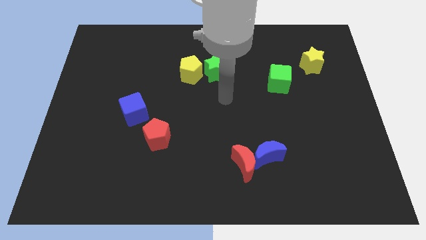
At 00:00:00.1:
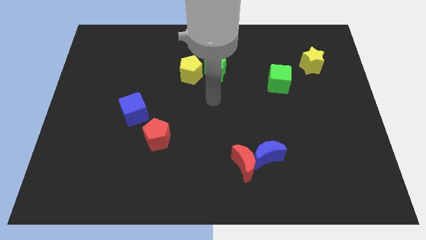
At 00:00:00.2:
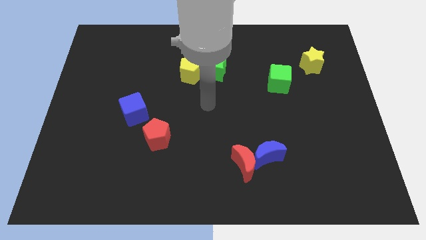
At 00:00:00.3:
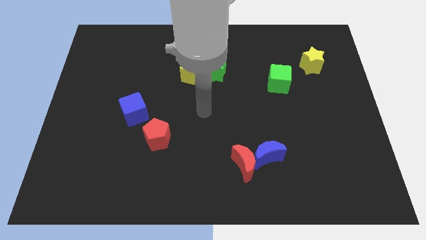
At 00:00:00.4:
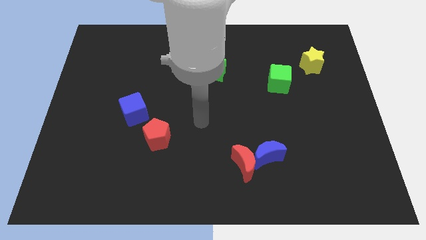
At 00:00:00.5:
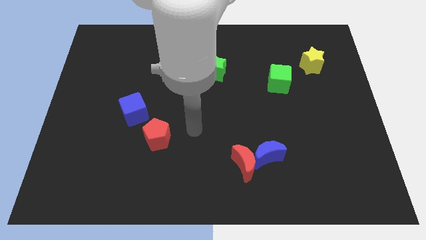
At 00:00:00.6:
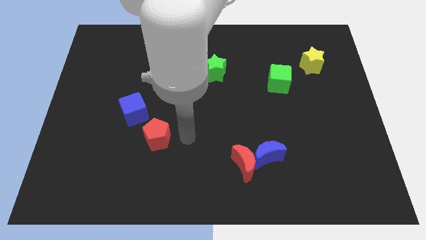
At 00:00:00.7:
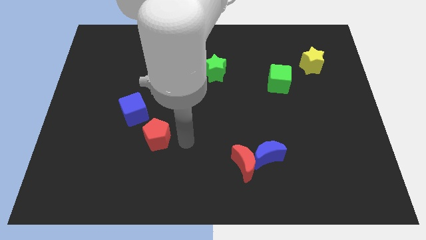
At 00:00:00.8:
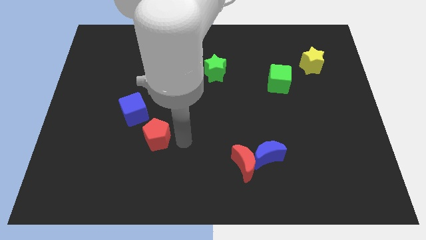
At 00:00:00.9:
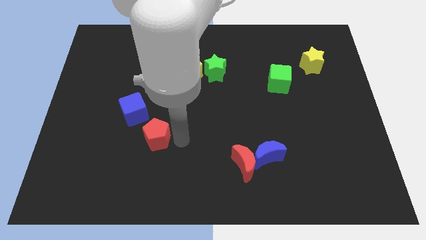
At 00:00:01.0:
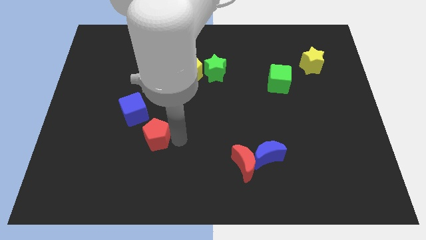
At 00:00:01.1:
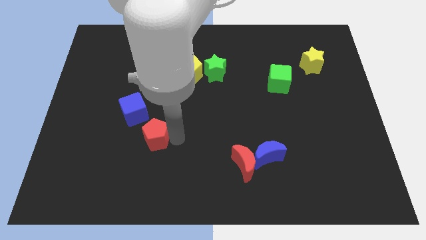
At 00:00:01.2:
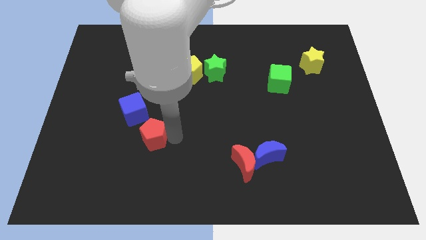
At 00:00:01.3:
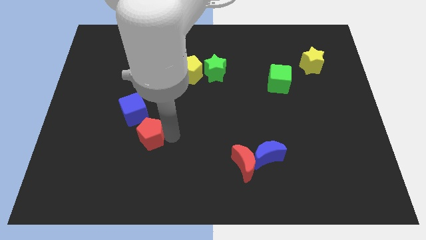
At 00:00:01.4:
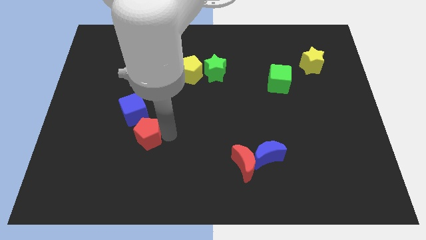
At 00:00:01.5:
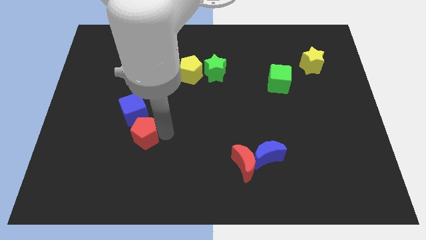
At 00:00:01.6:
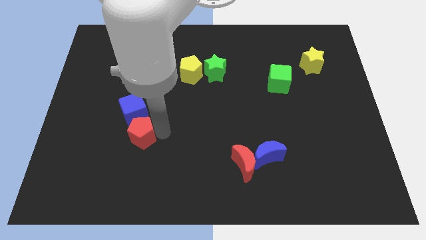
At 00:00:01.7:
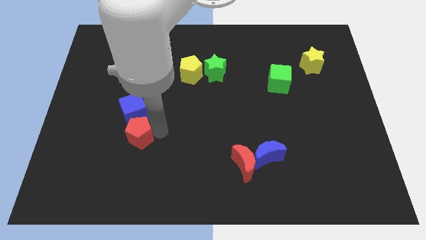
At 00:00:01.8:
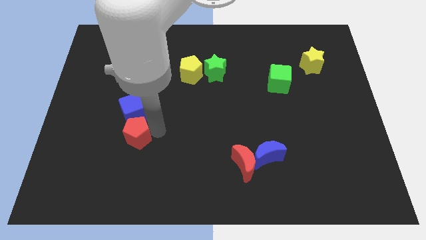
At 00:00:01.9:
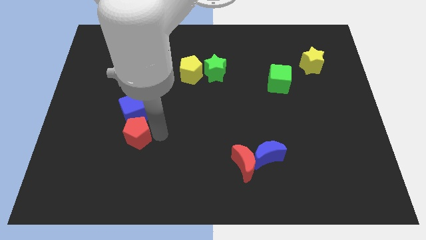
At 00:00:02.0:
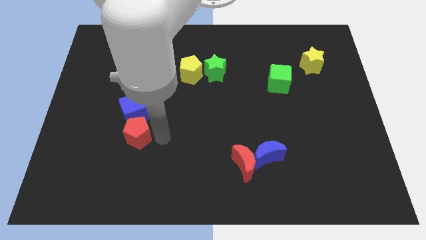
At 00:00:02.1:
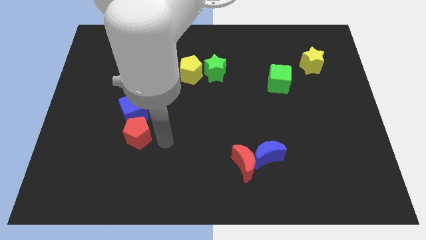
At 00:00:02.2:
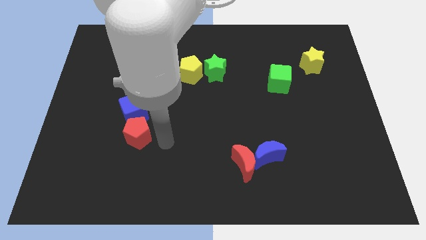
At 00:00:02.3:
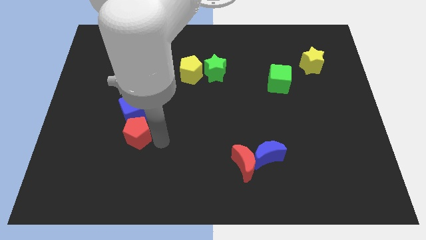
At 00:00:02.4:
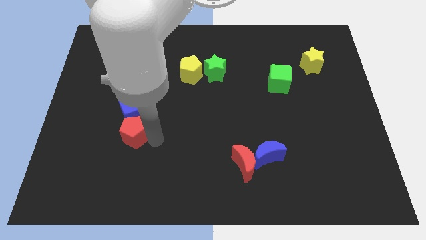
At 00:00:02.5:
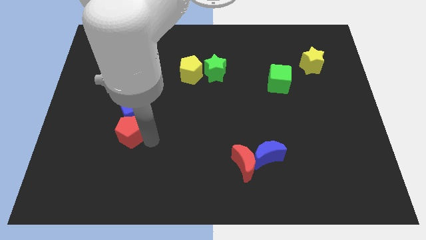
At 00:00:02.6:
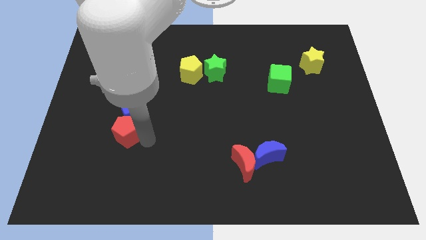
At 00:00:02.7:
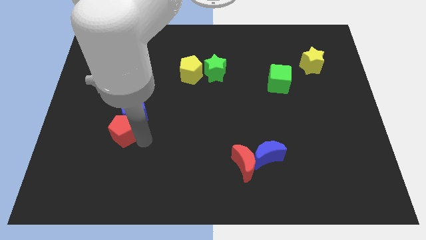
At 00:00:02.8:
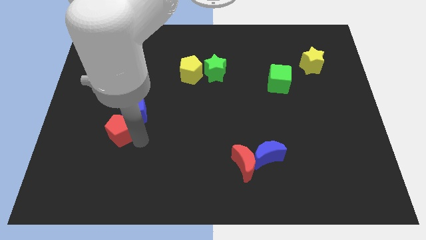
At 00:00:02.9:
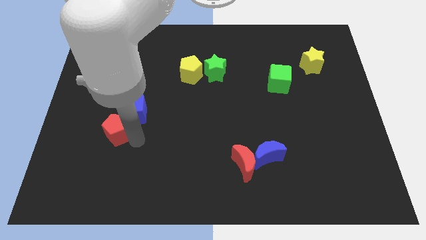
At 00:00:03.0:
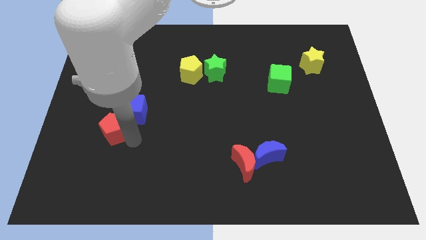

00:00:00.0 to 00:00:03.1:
push the red pentagon somewhat diagonally upwards and to the left

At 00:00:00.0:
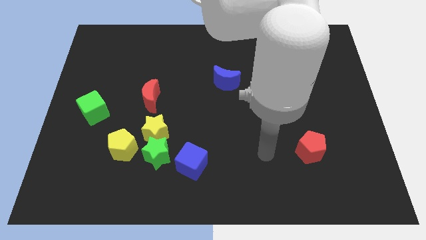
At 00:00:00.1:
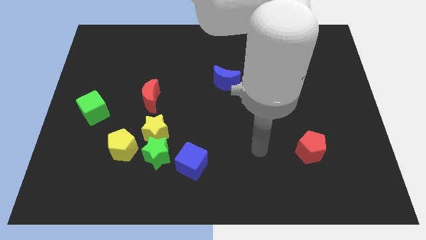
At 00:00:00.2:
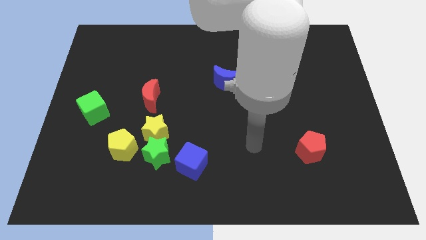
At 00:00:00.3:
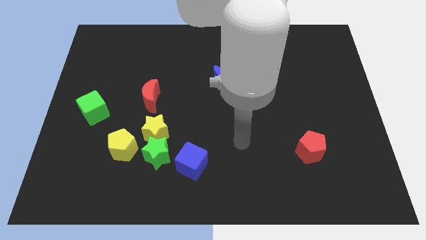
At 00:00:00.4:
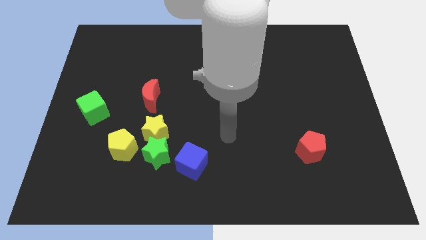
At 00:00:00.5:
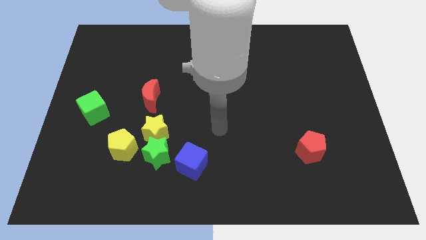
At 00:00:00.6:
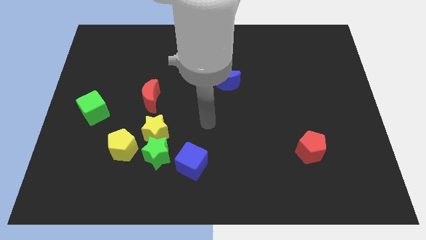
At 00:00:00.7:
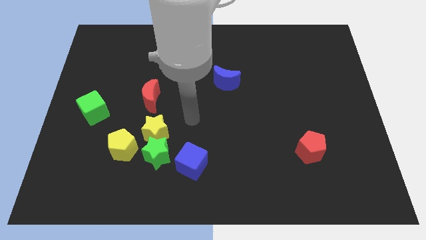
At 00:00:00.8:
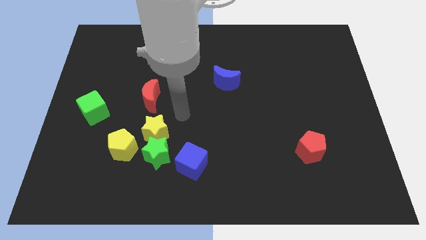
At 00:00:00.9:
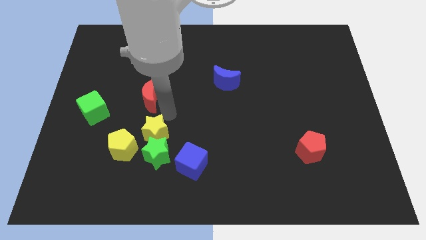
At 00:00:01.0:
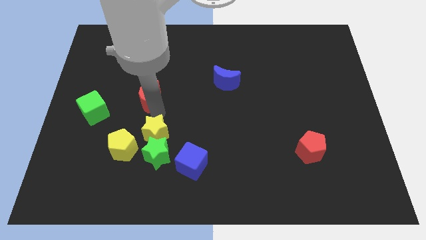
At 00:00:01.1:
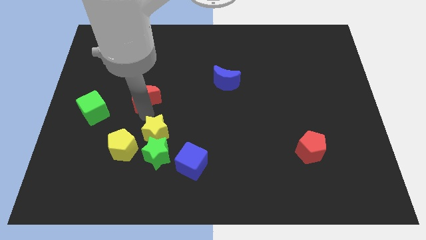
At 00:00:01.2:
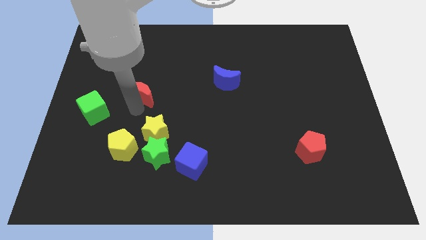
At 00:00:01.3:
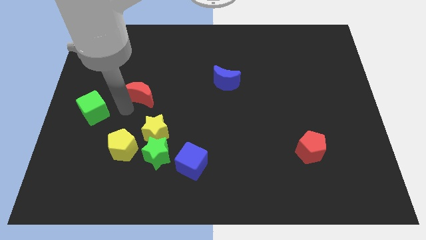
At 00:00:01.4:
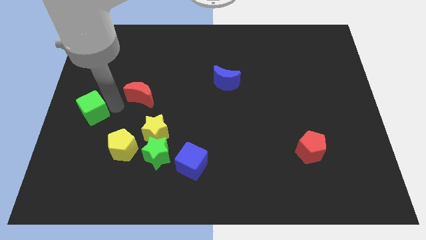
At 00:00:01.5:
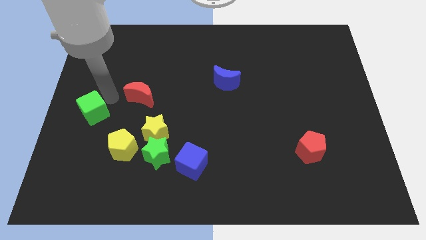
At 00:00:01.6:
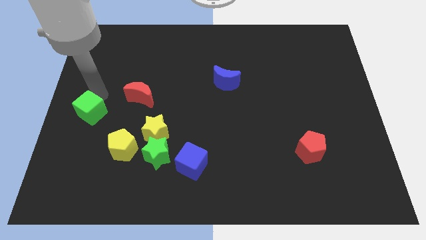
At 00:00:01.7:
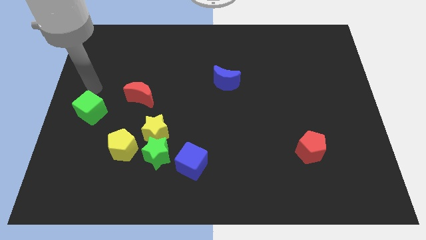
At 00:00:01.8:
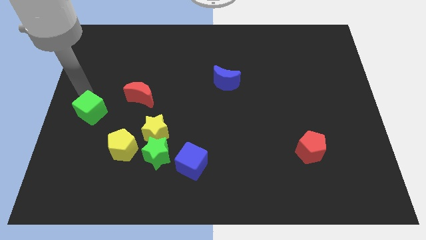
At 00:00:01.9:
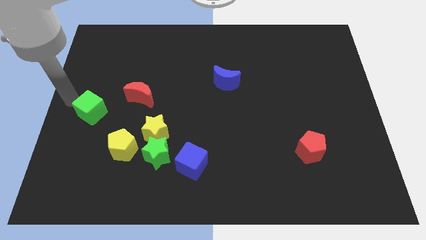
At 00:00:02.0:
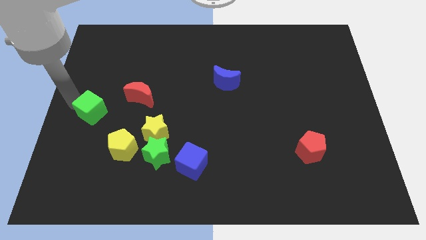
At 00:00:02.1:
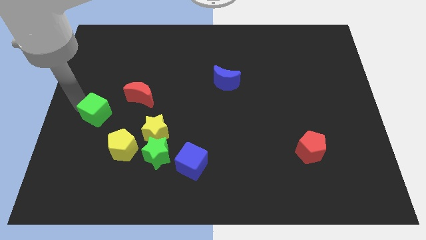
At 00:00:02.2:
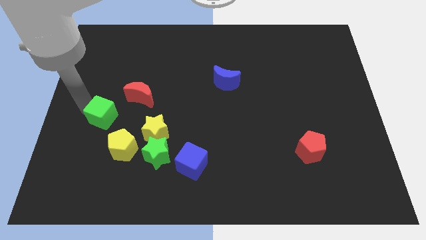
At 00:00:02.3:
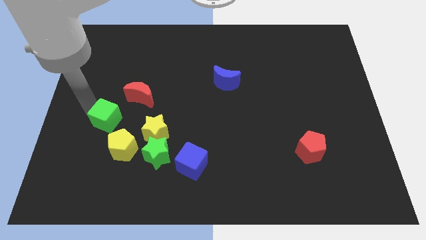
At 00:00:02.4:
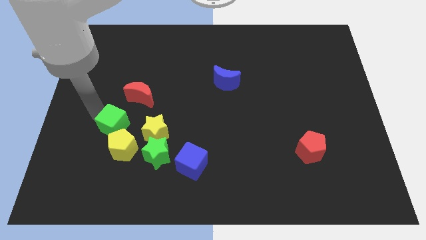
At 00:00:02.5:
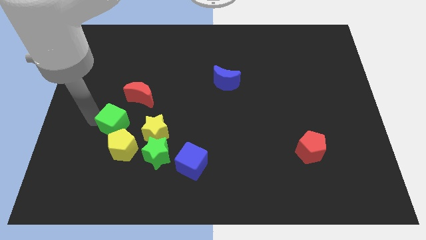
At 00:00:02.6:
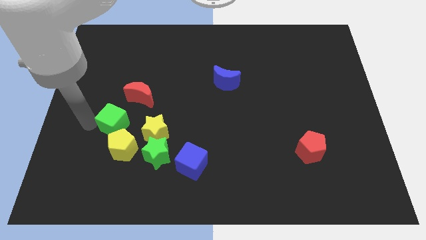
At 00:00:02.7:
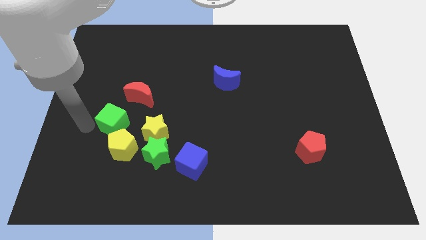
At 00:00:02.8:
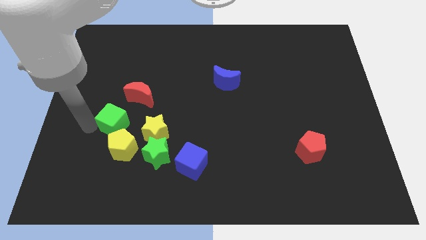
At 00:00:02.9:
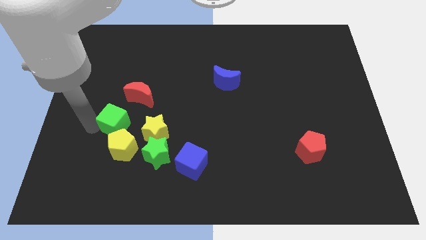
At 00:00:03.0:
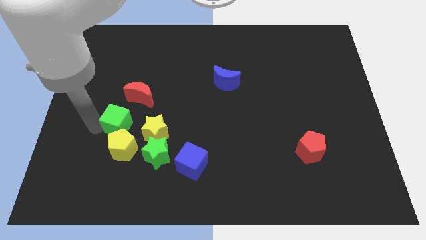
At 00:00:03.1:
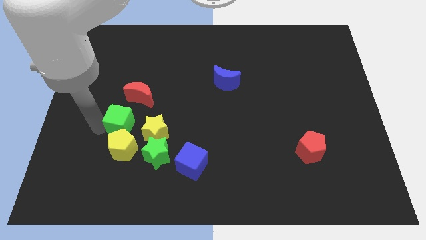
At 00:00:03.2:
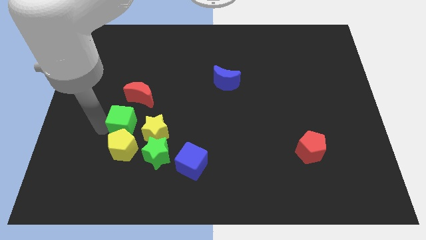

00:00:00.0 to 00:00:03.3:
slide the green cube to the right a little

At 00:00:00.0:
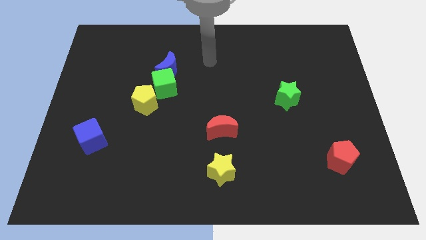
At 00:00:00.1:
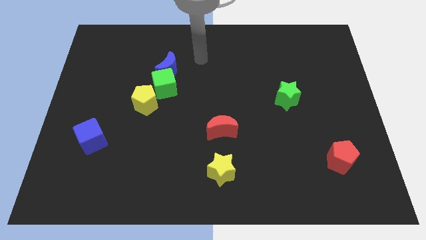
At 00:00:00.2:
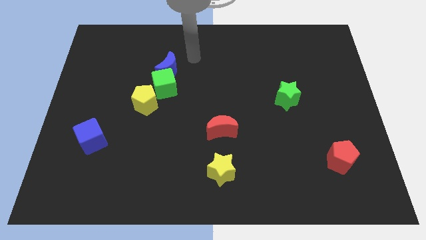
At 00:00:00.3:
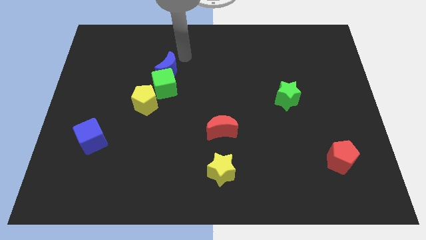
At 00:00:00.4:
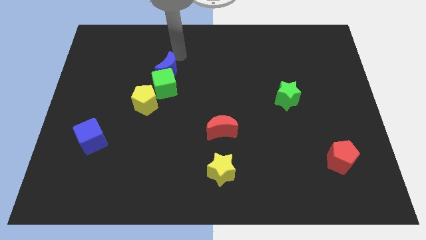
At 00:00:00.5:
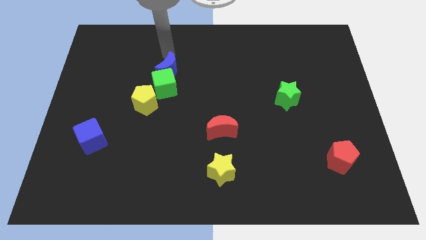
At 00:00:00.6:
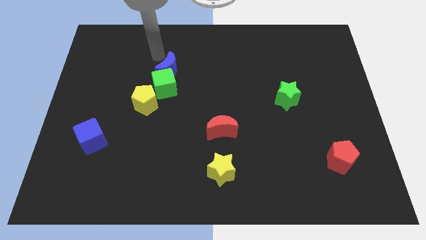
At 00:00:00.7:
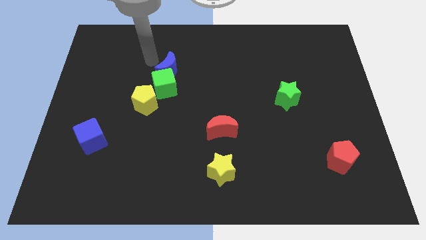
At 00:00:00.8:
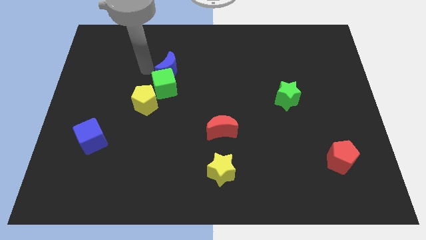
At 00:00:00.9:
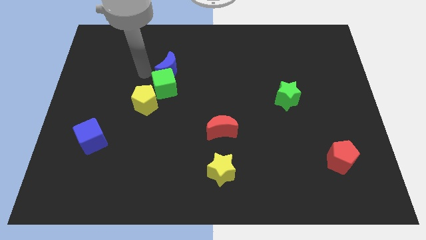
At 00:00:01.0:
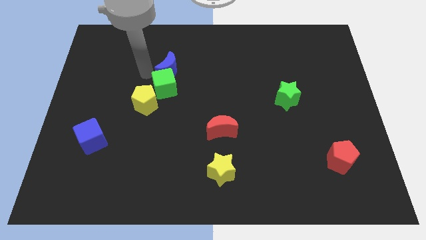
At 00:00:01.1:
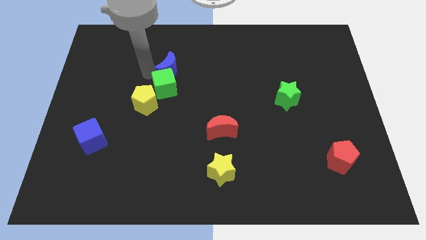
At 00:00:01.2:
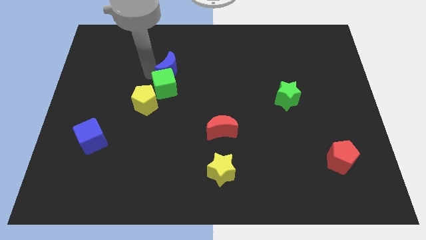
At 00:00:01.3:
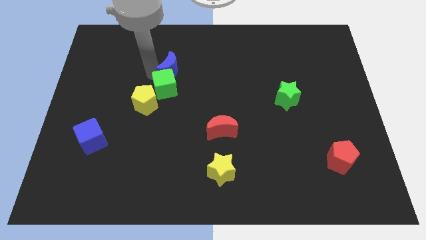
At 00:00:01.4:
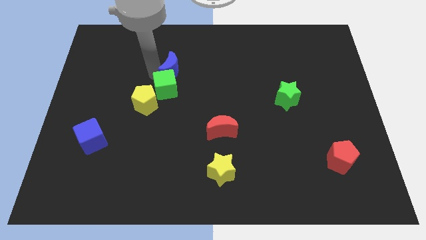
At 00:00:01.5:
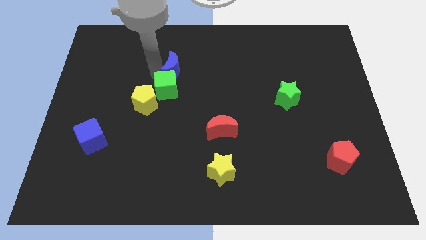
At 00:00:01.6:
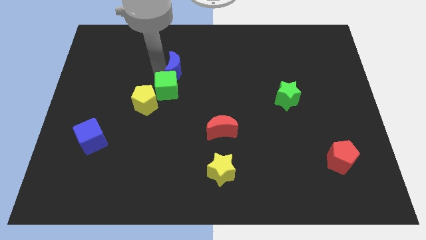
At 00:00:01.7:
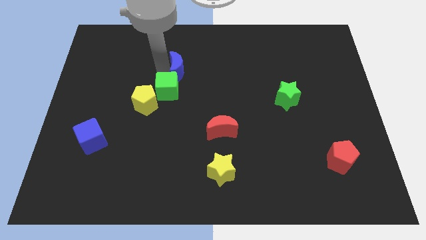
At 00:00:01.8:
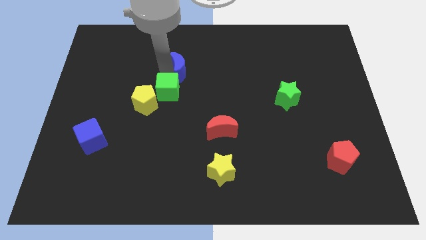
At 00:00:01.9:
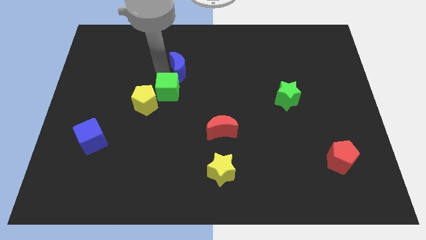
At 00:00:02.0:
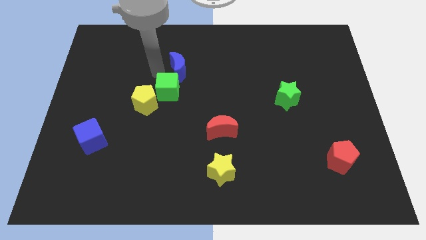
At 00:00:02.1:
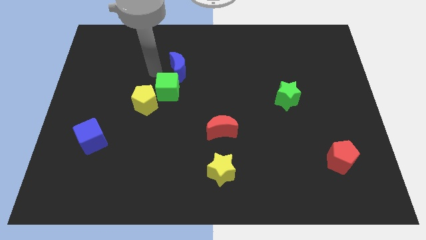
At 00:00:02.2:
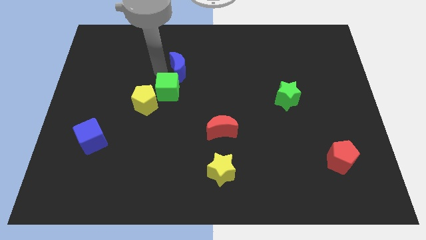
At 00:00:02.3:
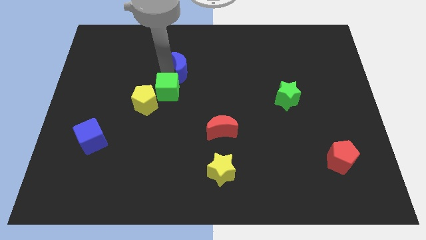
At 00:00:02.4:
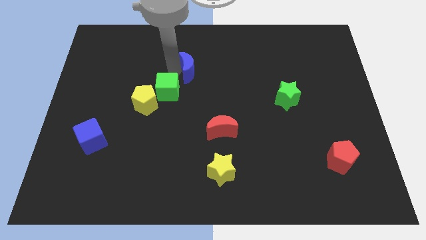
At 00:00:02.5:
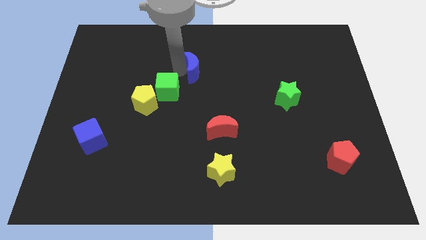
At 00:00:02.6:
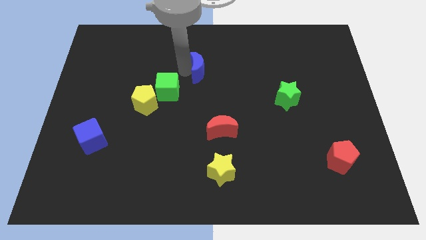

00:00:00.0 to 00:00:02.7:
slightly push the blue moon right
